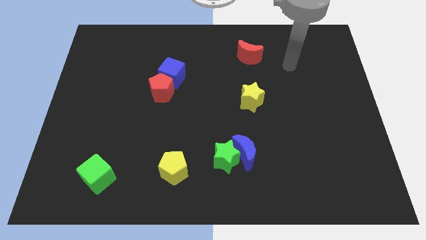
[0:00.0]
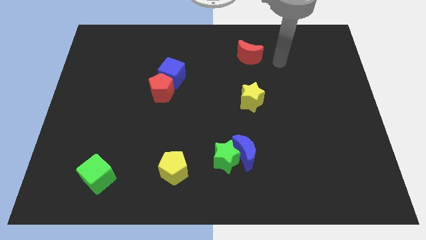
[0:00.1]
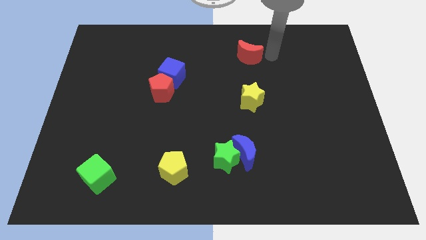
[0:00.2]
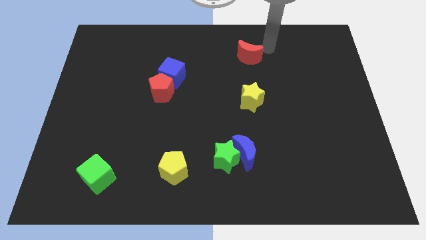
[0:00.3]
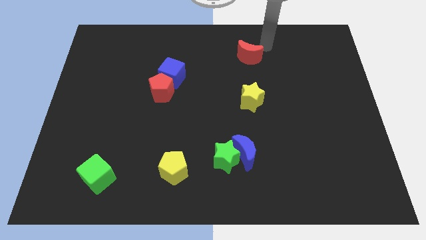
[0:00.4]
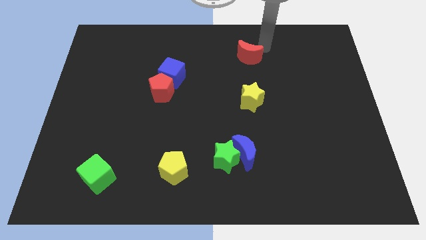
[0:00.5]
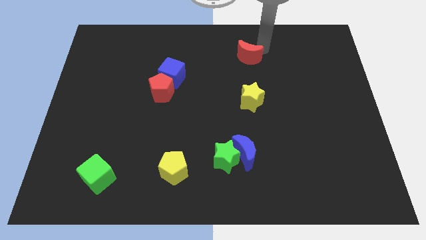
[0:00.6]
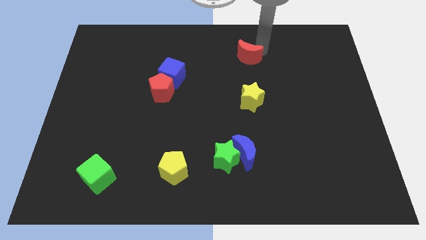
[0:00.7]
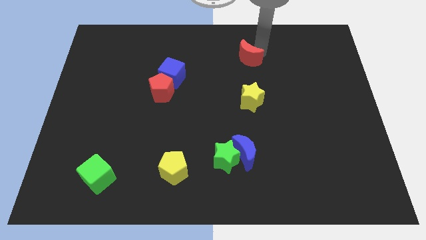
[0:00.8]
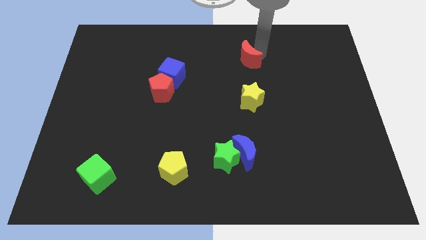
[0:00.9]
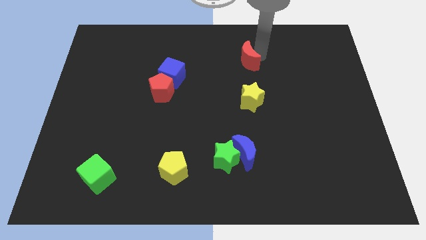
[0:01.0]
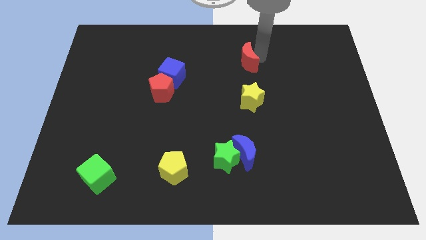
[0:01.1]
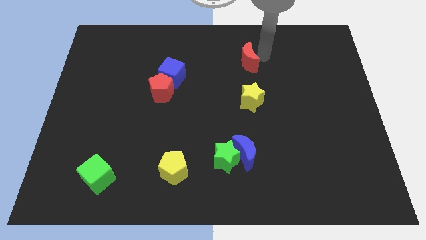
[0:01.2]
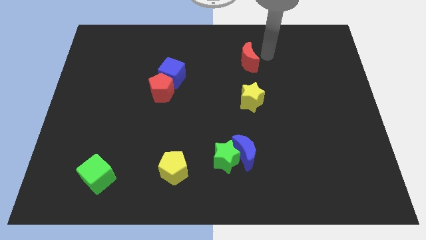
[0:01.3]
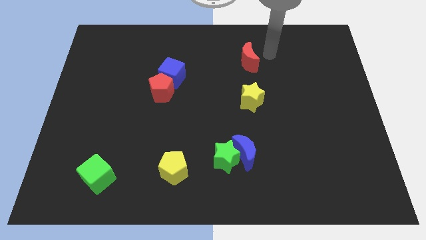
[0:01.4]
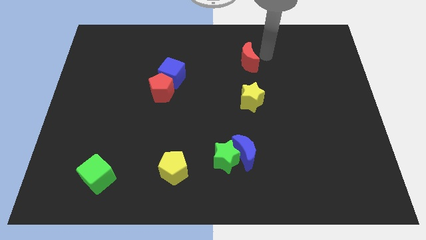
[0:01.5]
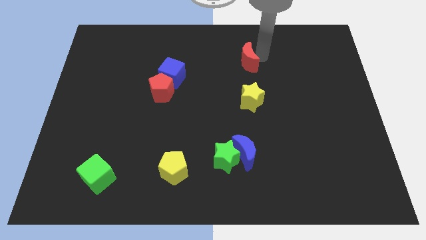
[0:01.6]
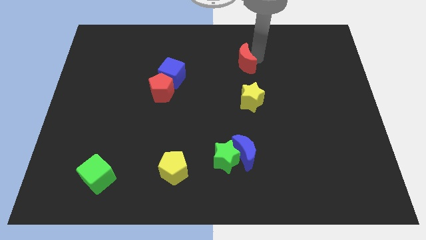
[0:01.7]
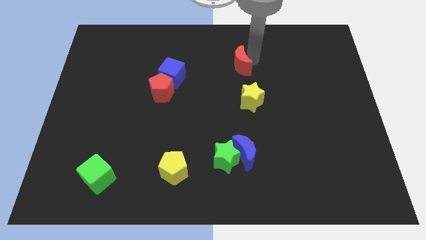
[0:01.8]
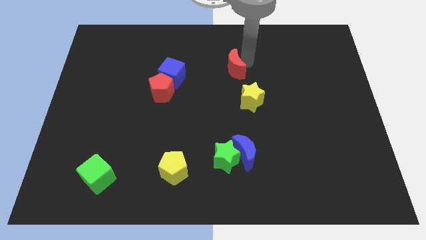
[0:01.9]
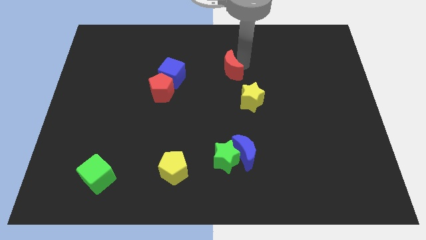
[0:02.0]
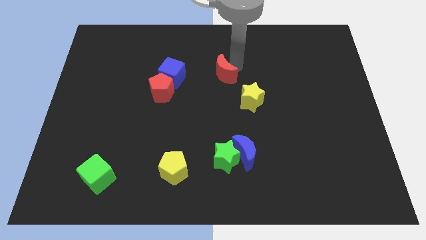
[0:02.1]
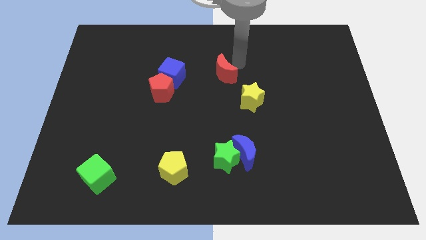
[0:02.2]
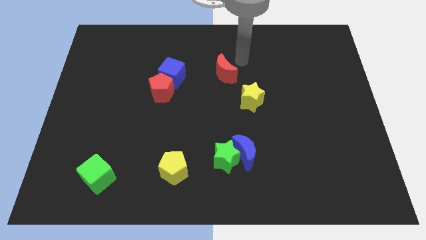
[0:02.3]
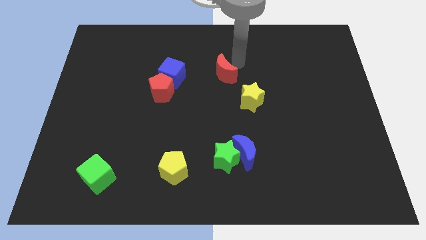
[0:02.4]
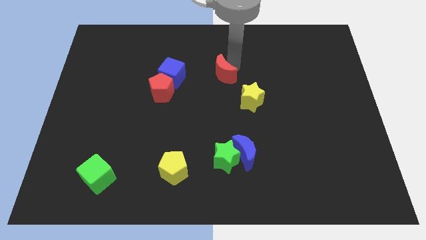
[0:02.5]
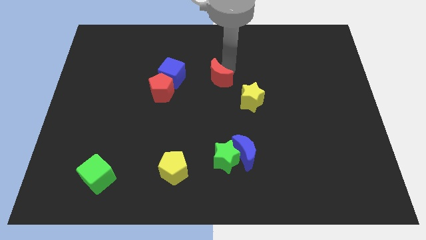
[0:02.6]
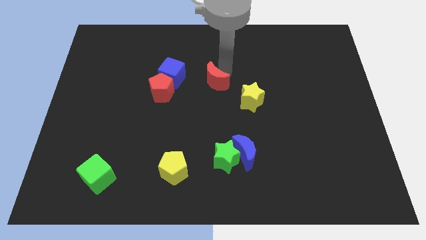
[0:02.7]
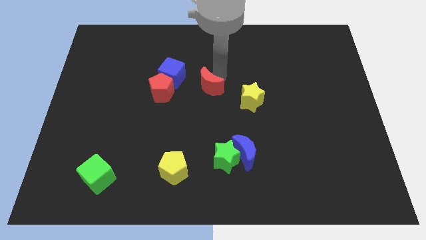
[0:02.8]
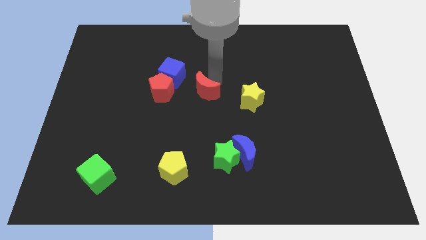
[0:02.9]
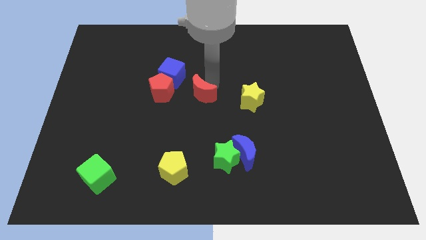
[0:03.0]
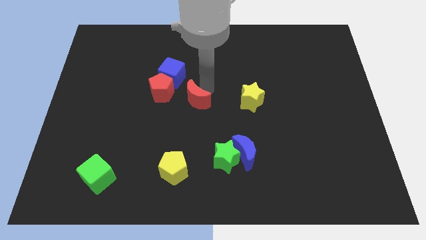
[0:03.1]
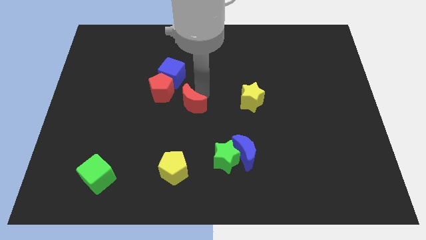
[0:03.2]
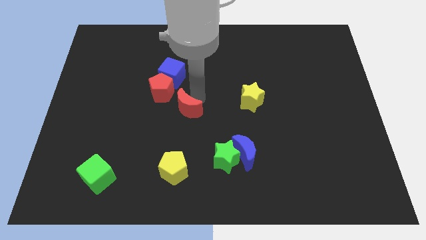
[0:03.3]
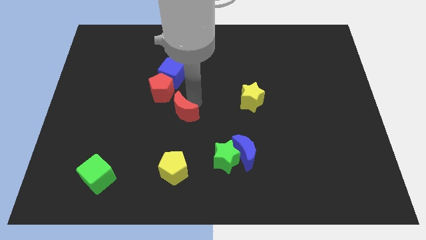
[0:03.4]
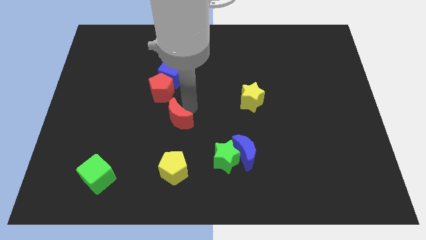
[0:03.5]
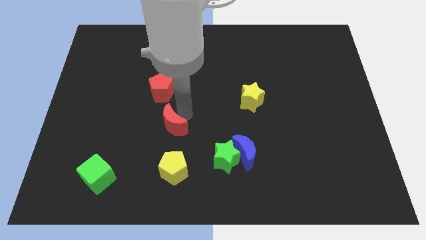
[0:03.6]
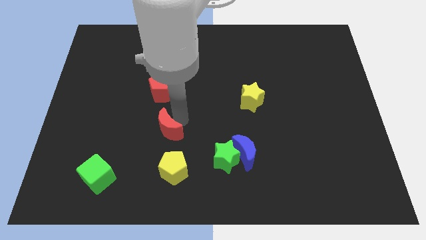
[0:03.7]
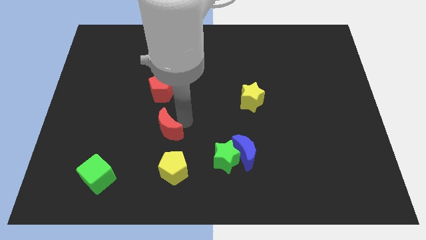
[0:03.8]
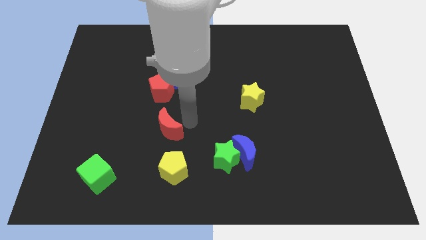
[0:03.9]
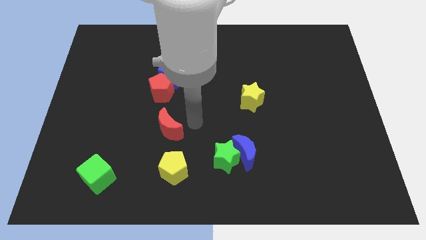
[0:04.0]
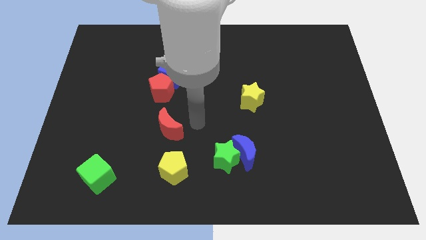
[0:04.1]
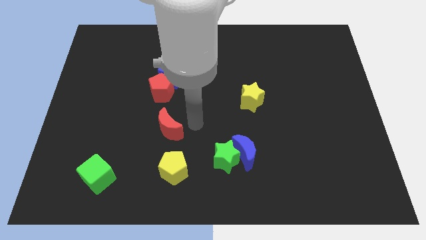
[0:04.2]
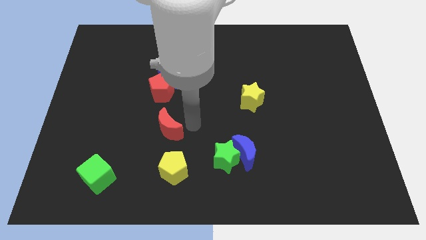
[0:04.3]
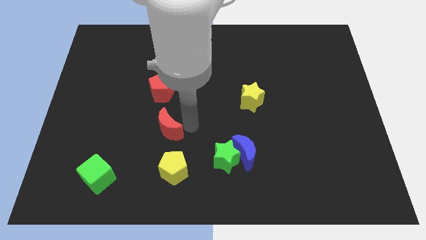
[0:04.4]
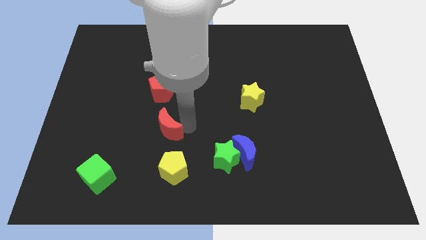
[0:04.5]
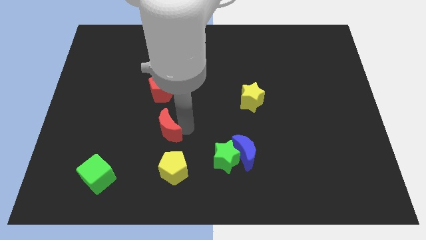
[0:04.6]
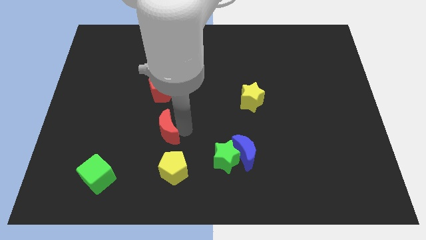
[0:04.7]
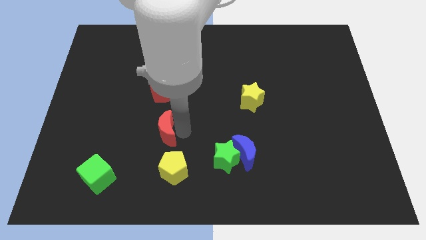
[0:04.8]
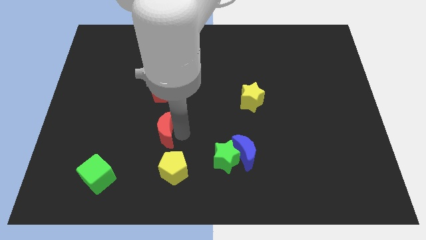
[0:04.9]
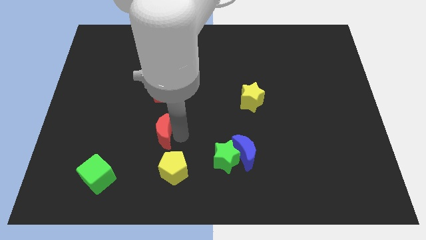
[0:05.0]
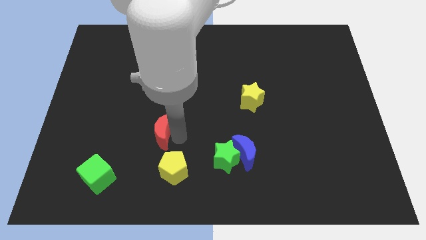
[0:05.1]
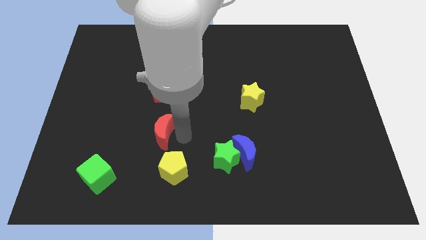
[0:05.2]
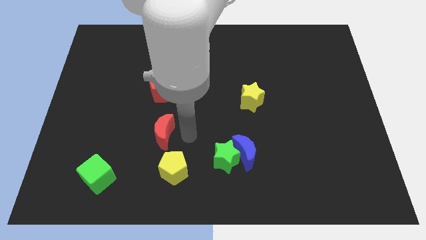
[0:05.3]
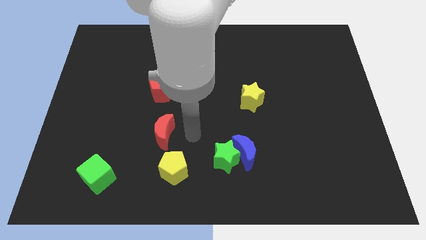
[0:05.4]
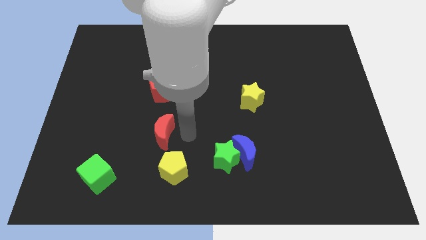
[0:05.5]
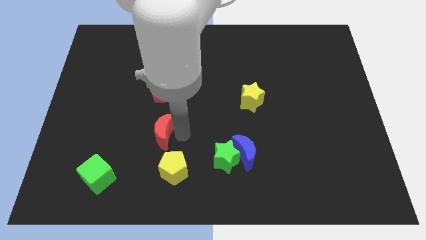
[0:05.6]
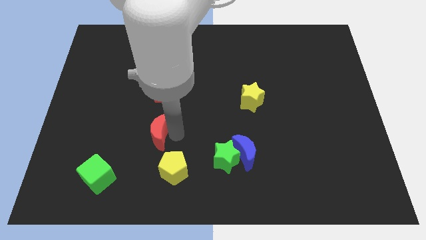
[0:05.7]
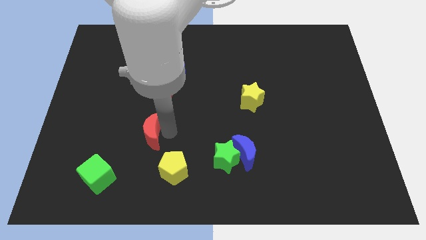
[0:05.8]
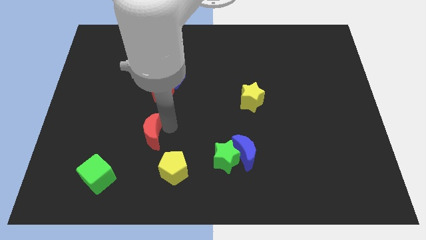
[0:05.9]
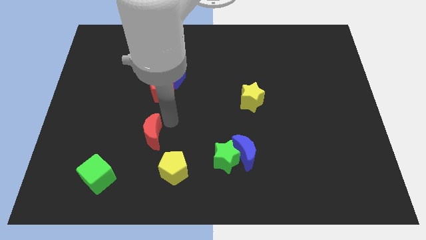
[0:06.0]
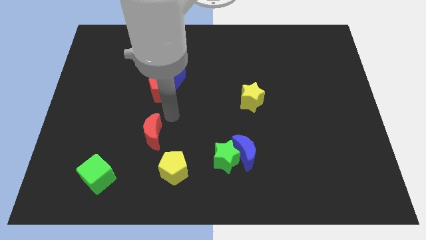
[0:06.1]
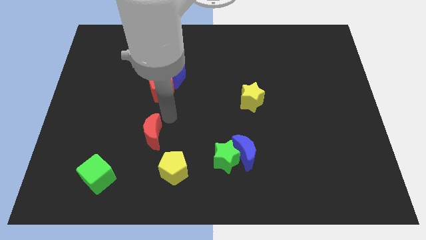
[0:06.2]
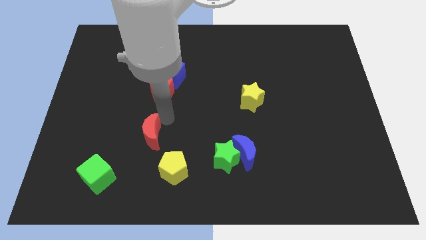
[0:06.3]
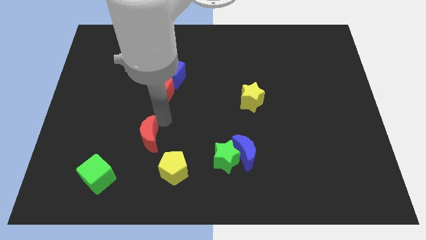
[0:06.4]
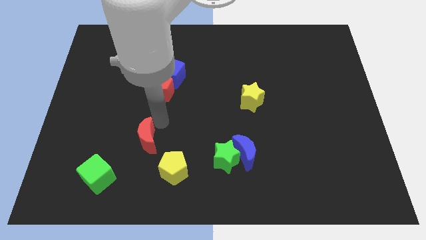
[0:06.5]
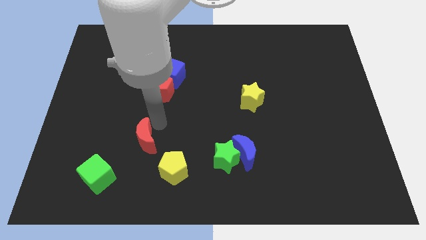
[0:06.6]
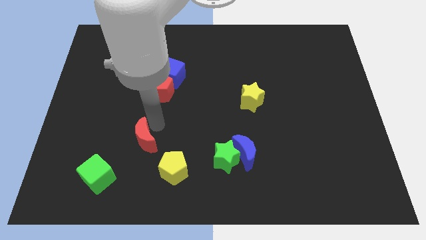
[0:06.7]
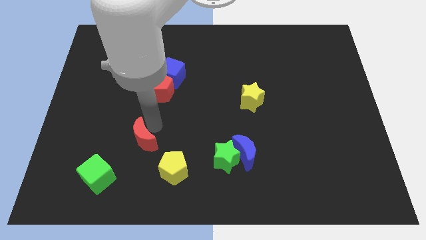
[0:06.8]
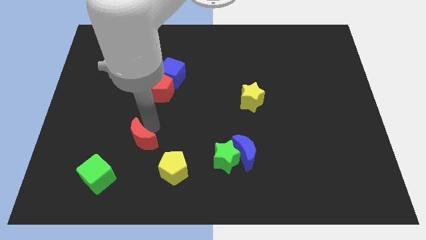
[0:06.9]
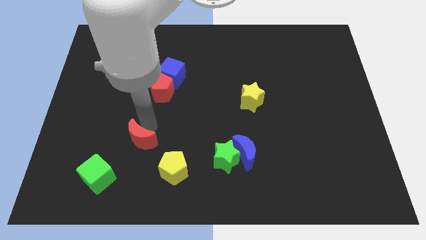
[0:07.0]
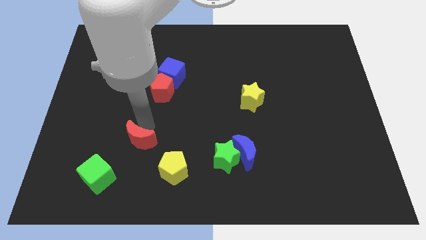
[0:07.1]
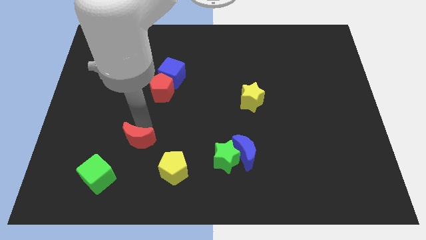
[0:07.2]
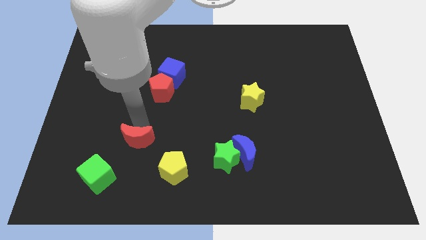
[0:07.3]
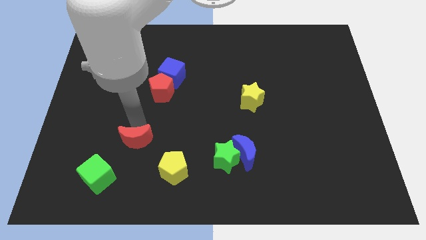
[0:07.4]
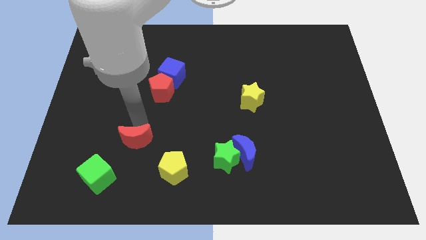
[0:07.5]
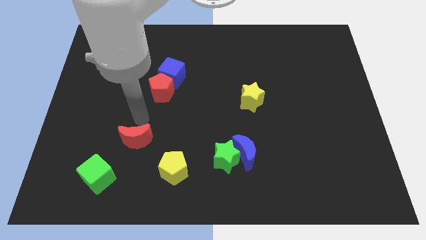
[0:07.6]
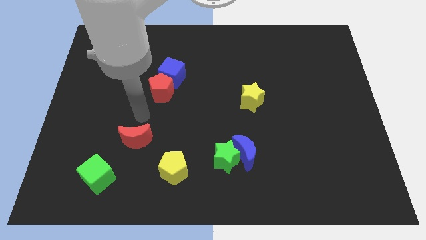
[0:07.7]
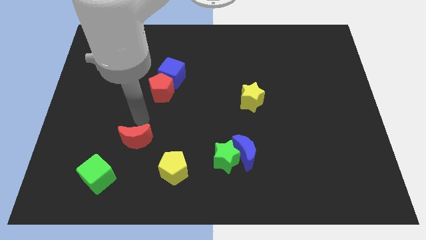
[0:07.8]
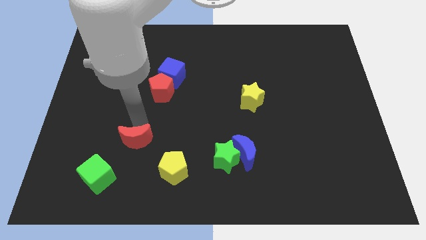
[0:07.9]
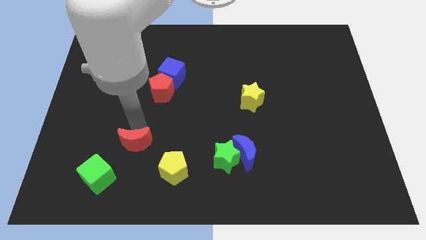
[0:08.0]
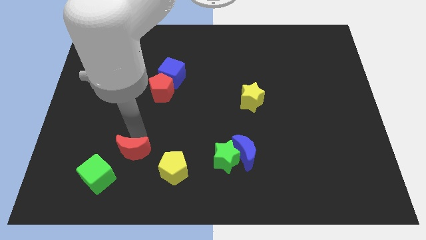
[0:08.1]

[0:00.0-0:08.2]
slide the red moon just left of the yellow pentagon
